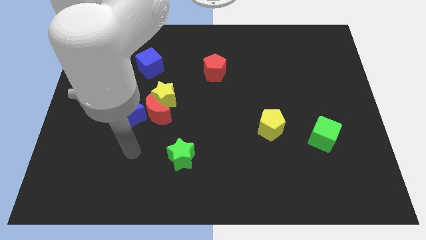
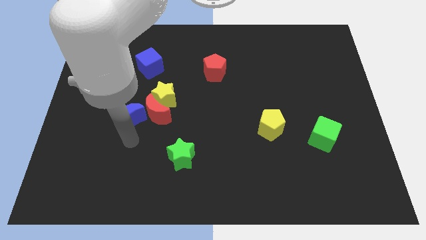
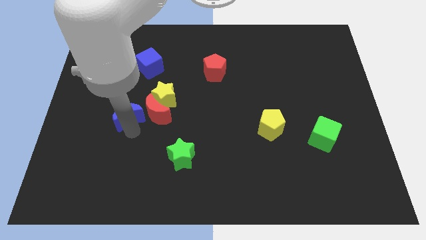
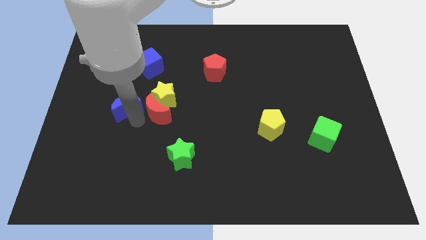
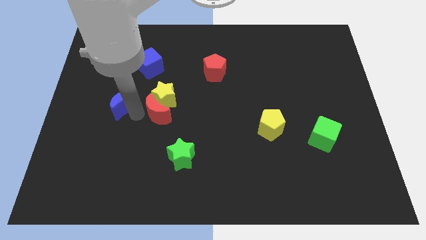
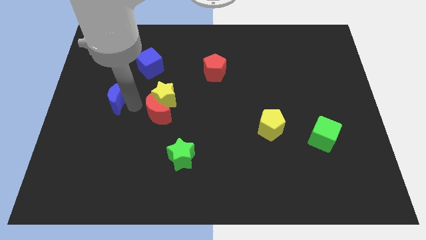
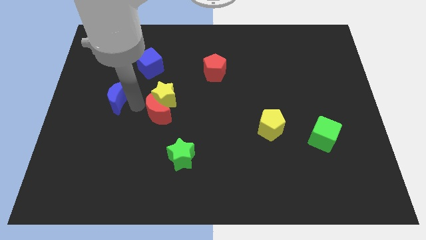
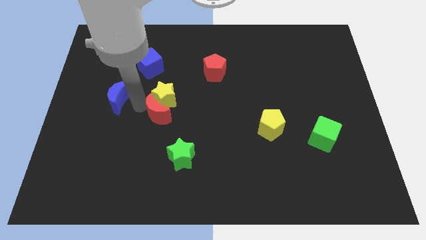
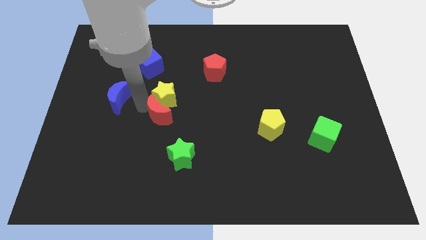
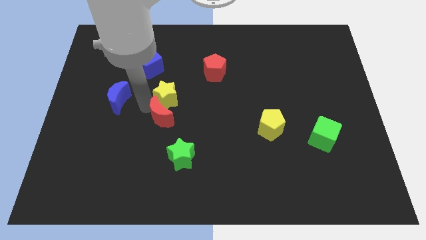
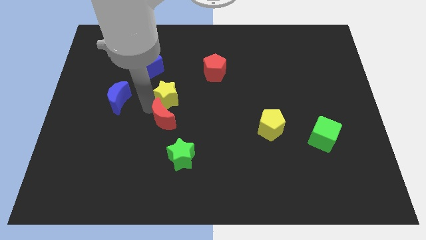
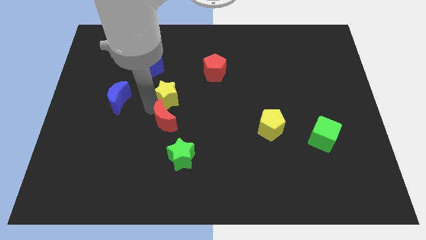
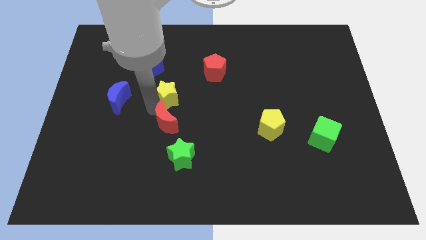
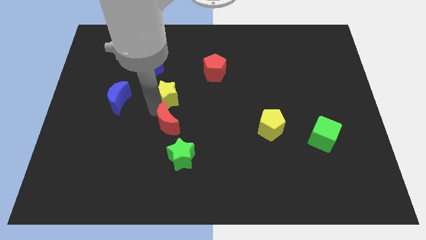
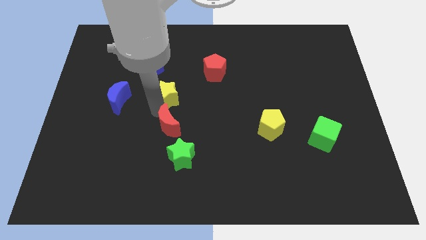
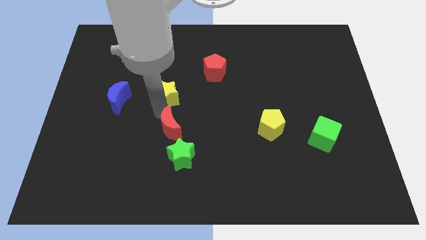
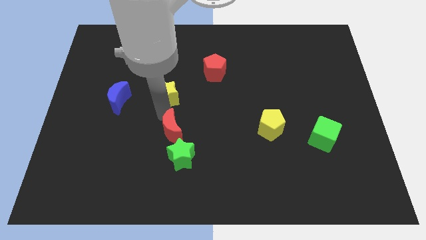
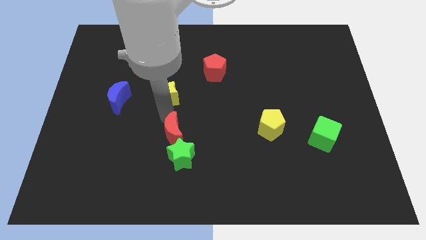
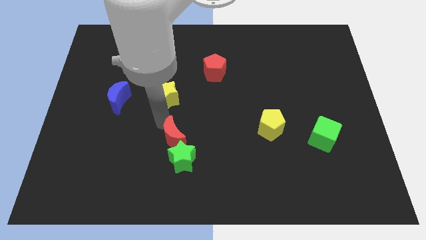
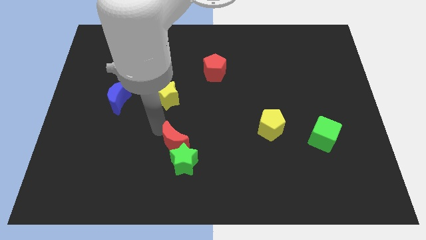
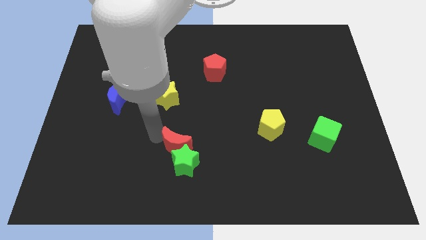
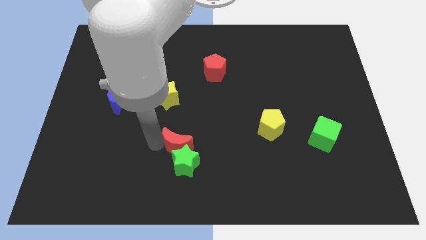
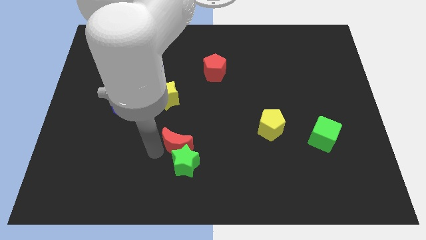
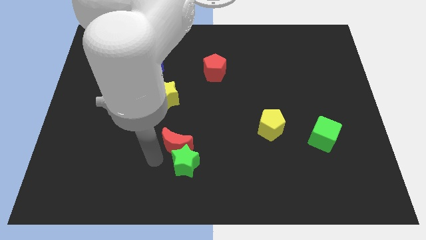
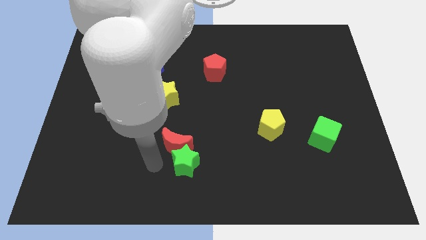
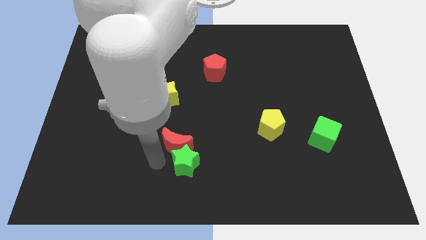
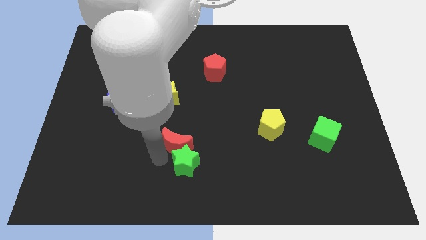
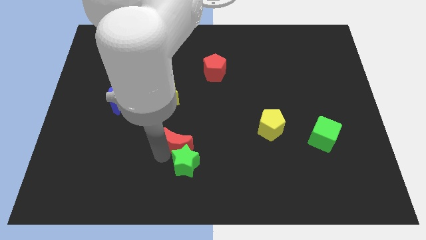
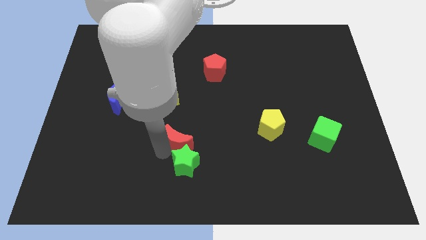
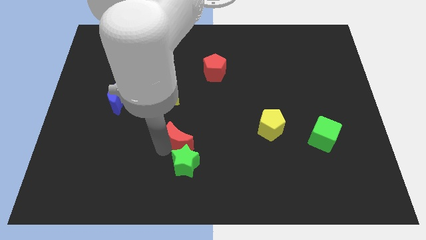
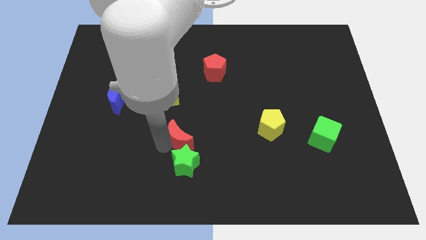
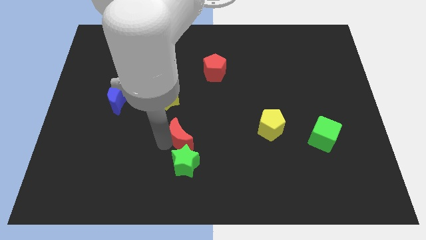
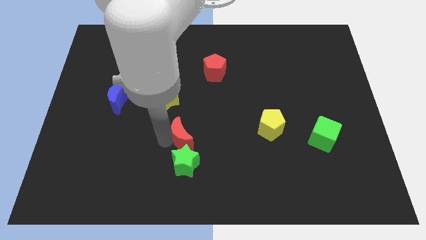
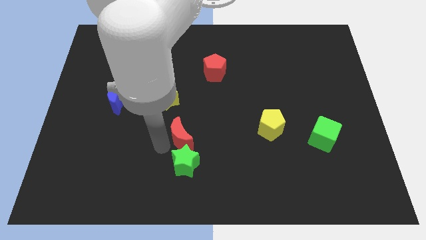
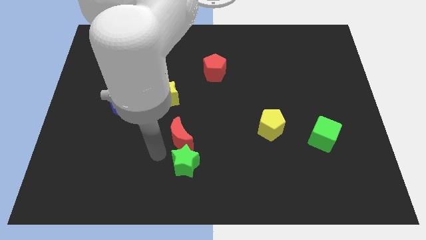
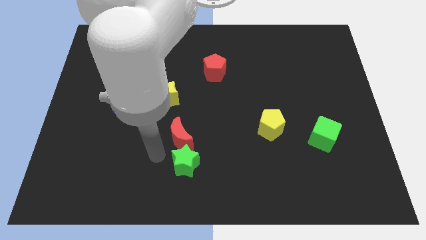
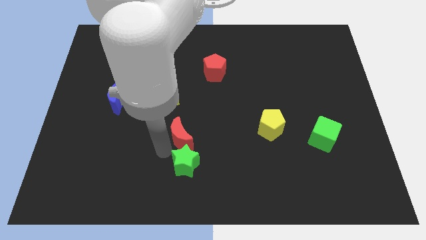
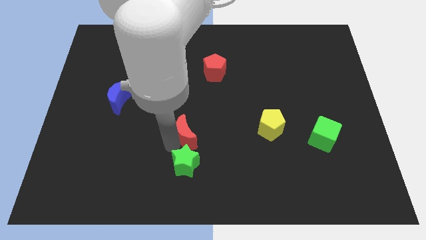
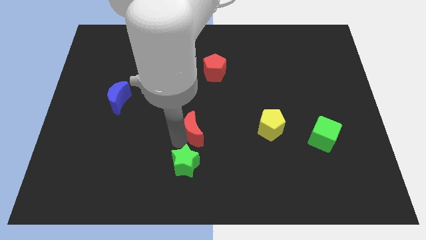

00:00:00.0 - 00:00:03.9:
slightly move the red moon to the right

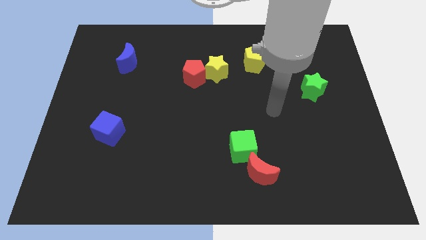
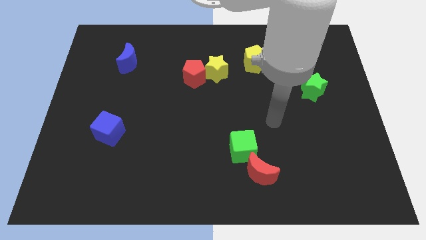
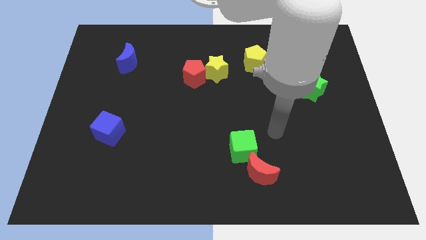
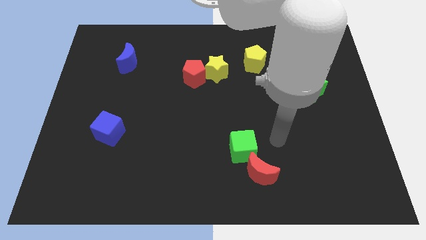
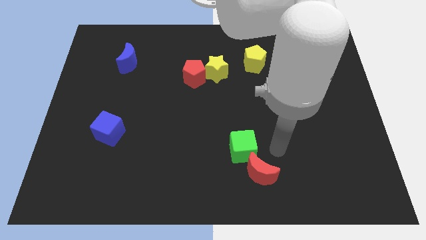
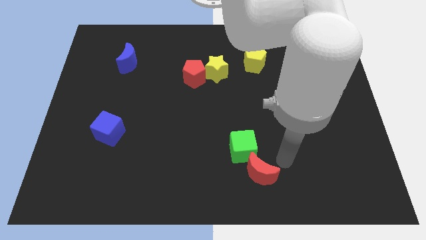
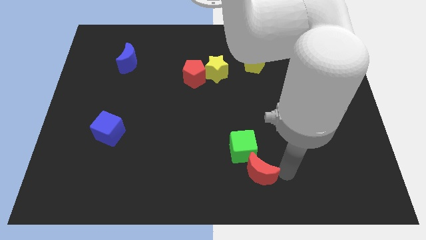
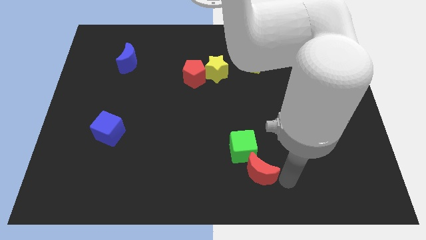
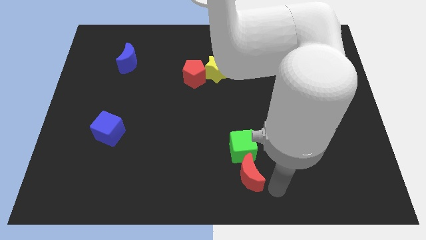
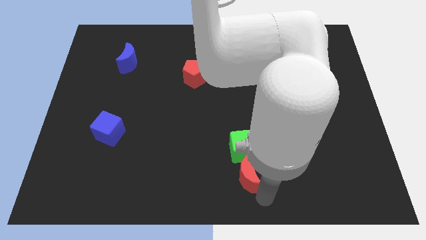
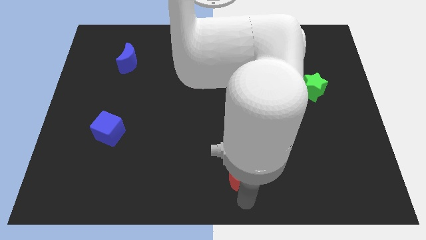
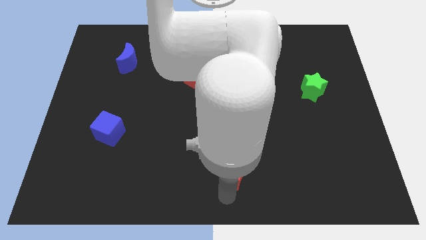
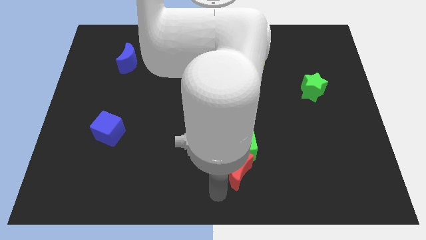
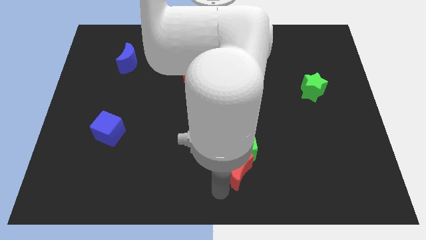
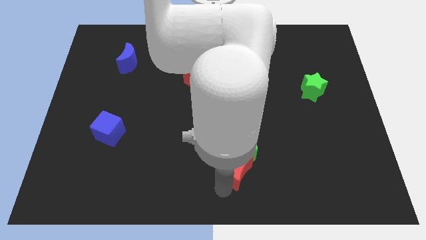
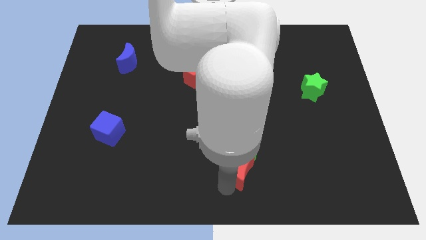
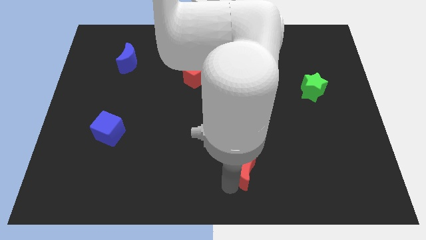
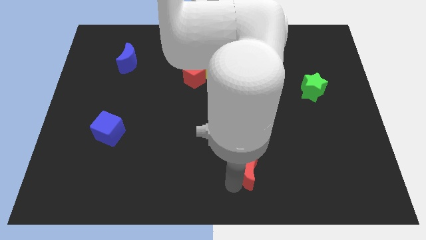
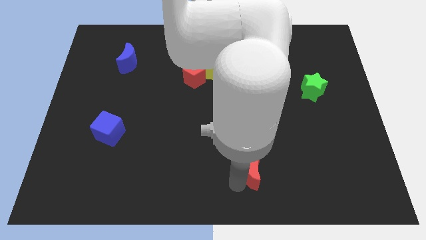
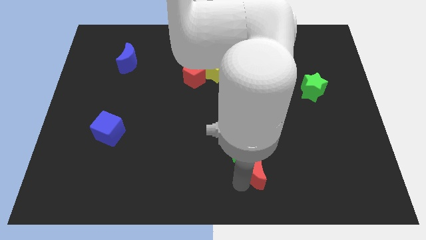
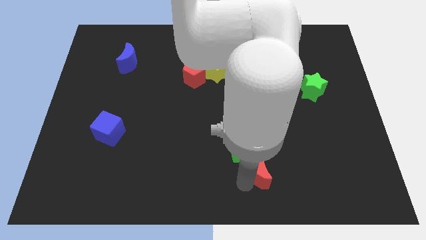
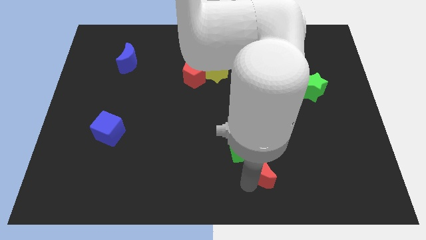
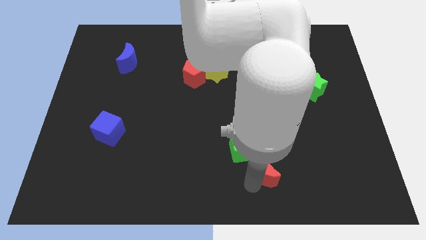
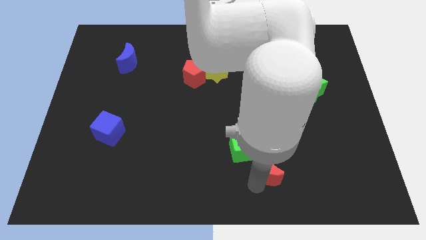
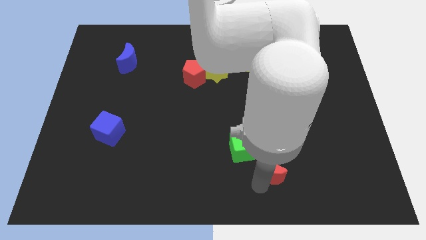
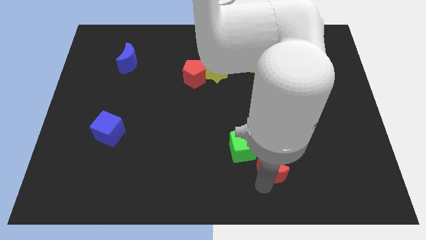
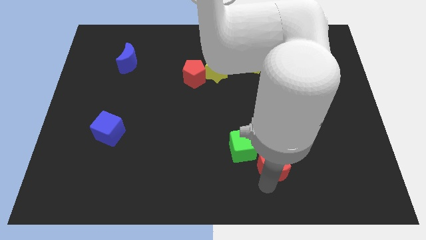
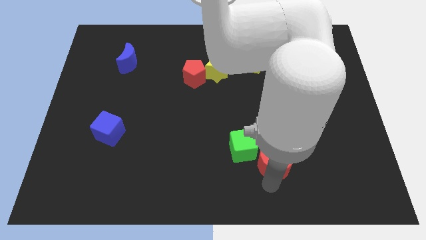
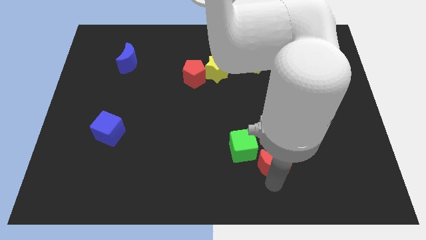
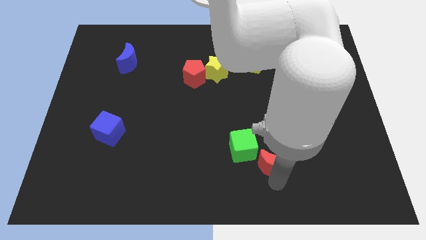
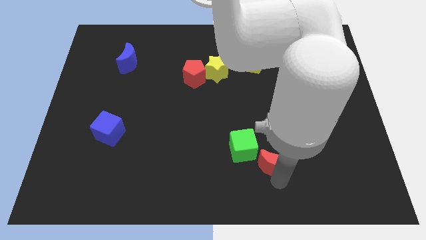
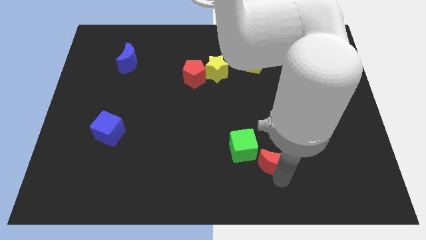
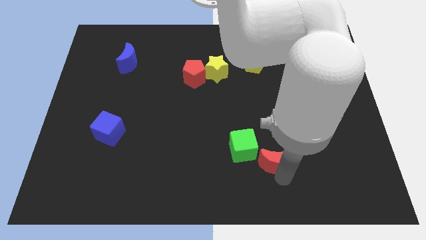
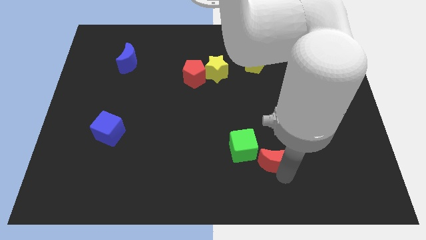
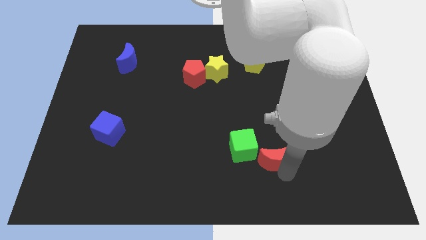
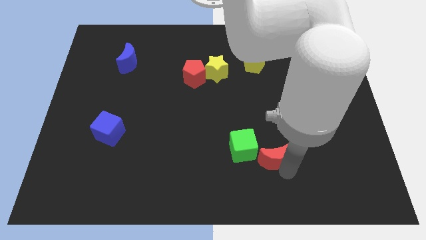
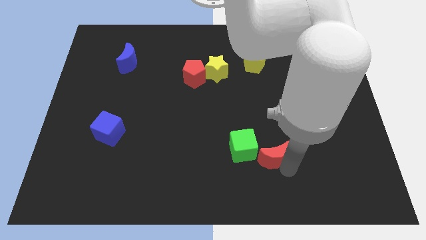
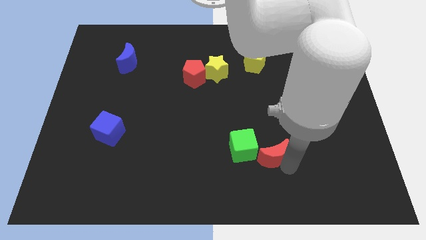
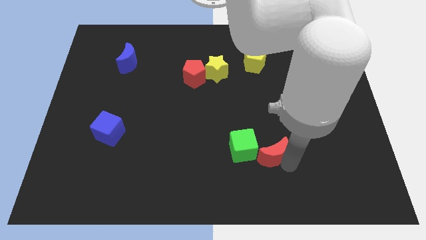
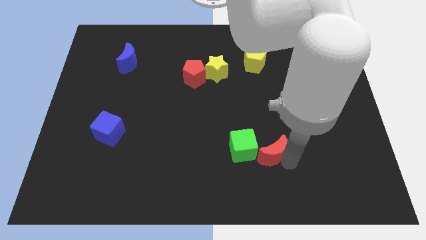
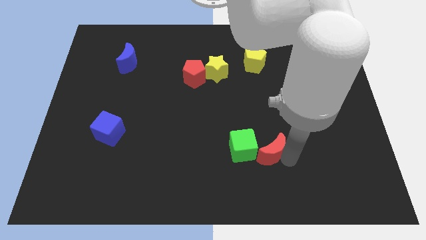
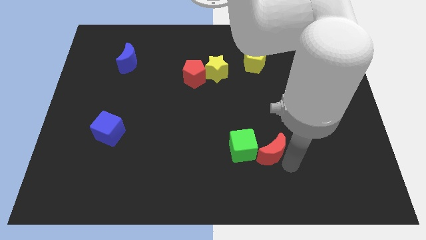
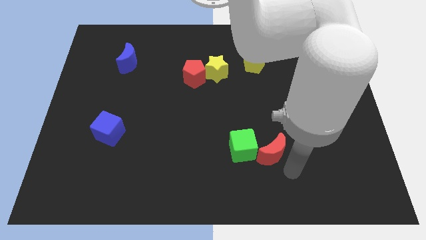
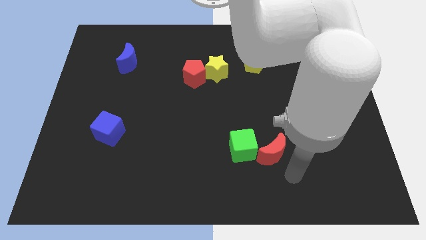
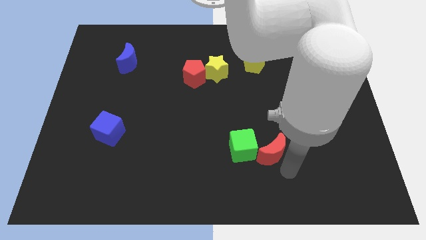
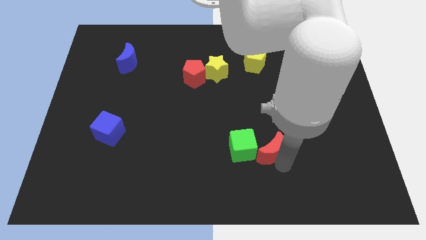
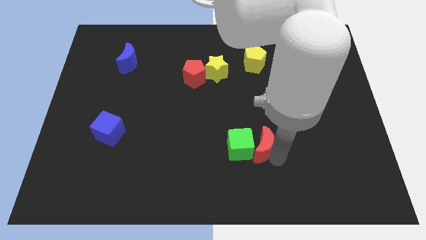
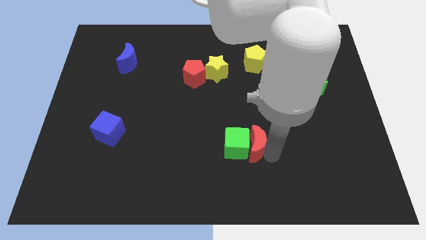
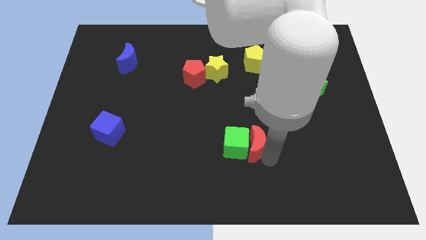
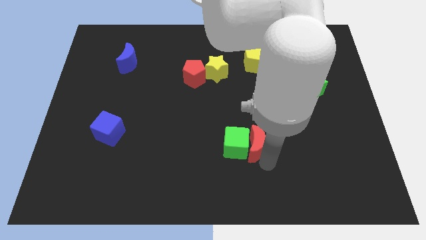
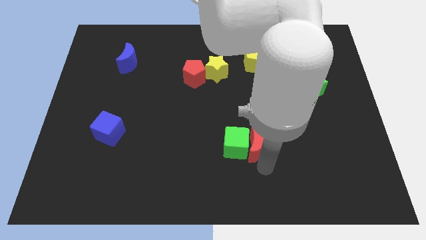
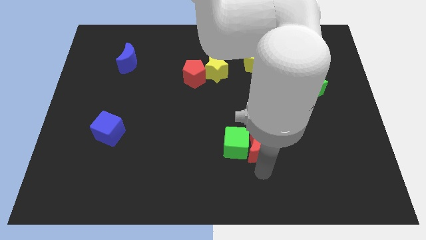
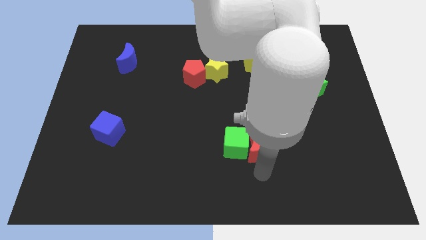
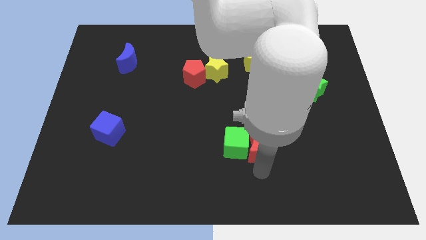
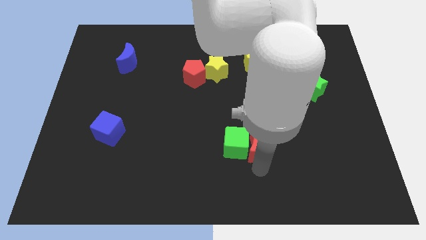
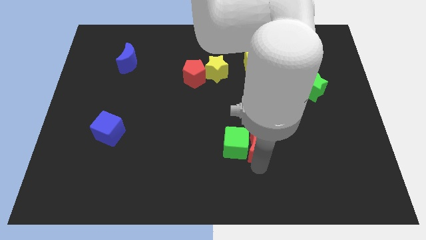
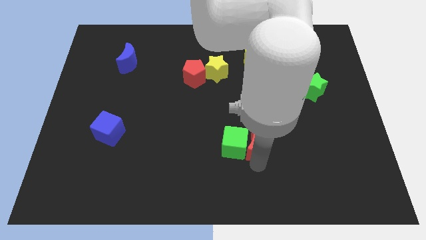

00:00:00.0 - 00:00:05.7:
push the red moon slightly upwards
